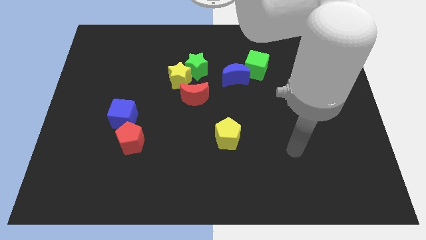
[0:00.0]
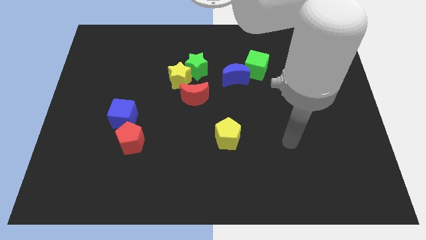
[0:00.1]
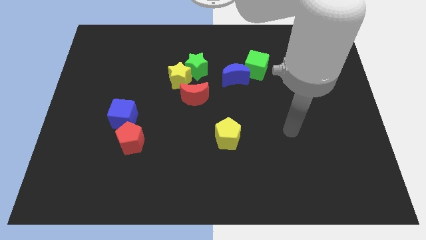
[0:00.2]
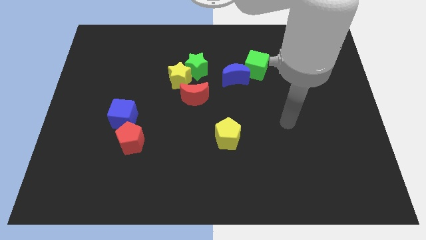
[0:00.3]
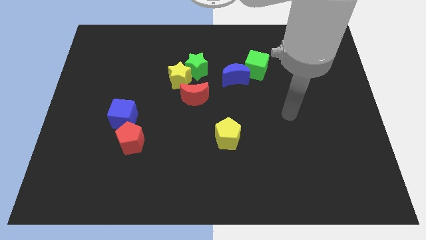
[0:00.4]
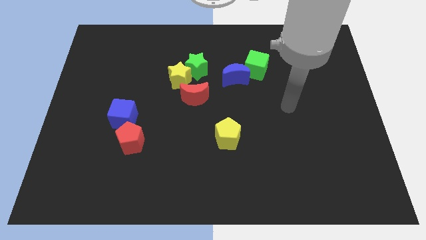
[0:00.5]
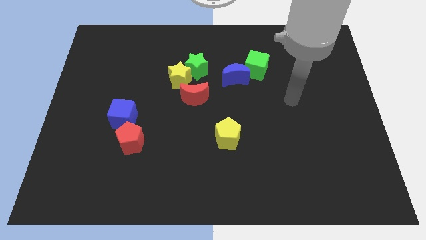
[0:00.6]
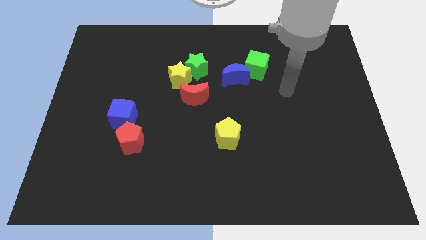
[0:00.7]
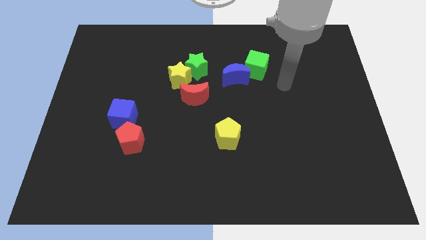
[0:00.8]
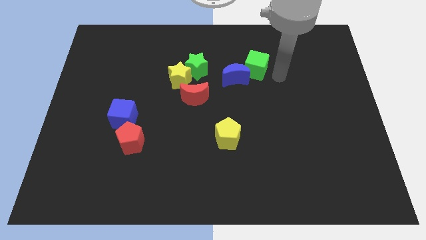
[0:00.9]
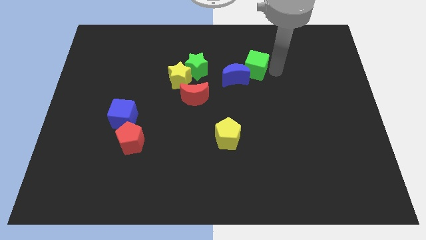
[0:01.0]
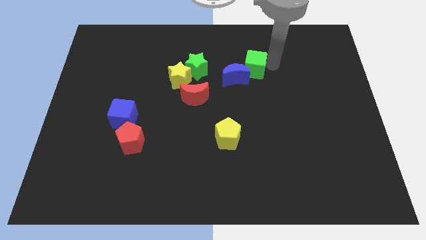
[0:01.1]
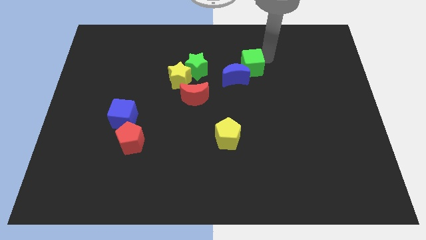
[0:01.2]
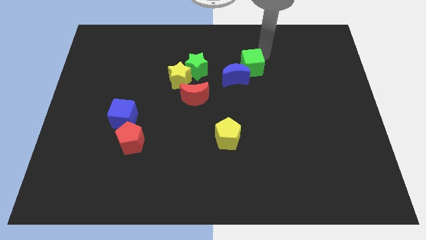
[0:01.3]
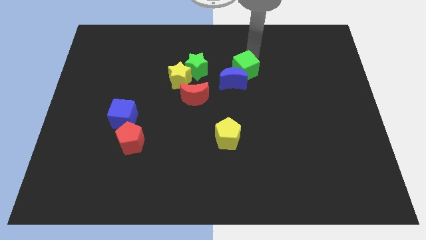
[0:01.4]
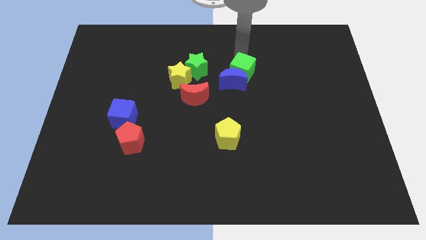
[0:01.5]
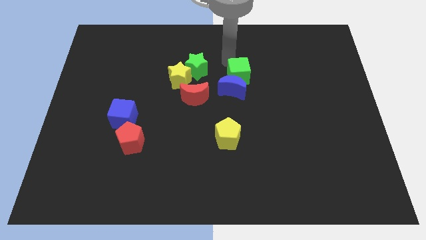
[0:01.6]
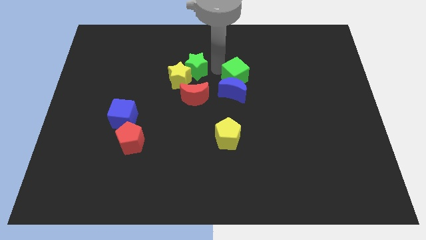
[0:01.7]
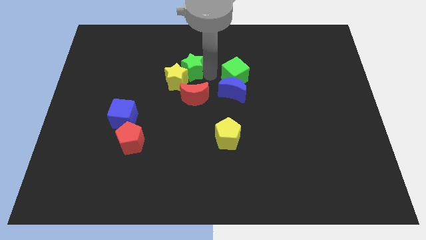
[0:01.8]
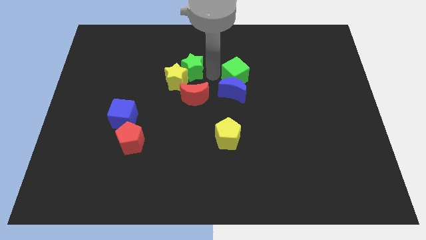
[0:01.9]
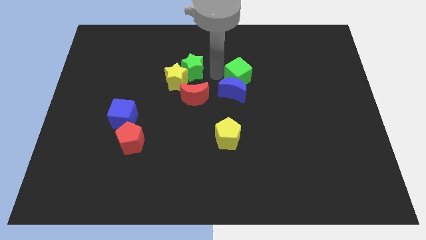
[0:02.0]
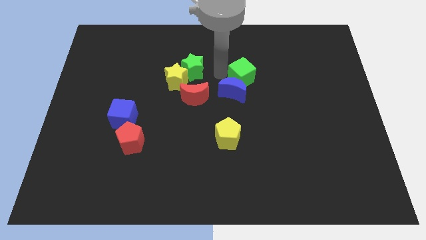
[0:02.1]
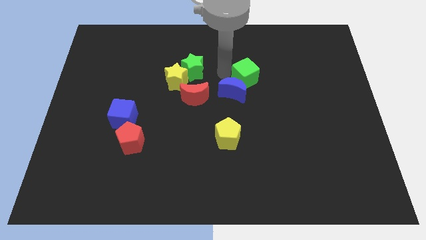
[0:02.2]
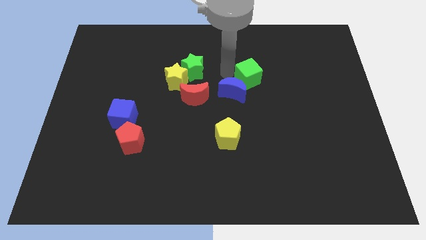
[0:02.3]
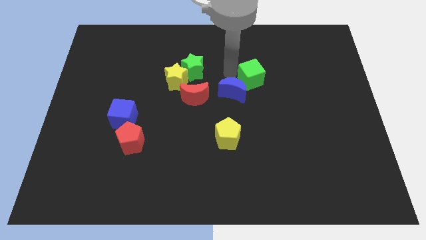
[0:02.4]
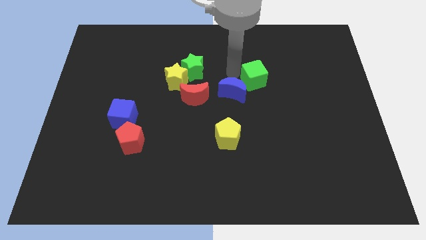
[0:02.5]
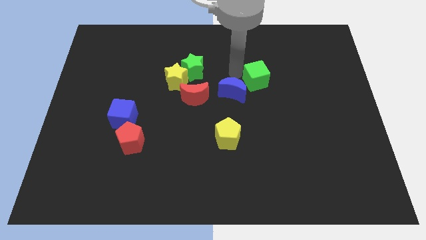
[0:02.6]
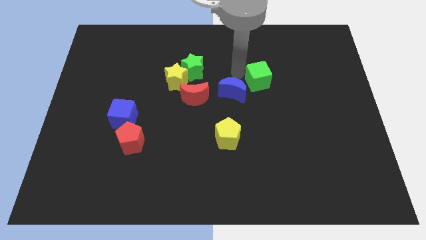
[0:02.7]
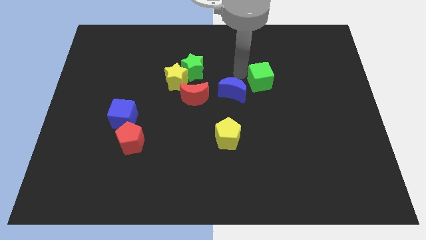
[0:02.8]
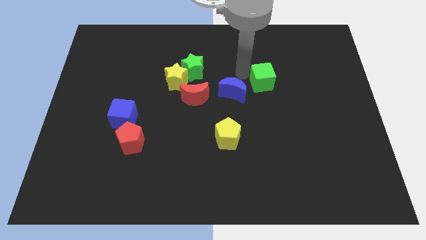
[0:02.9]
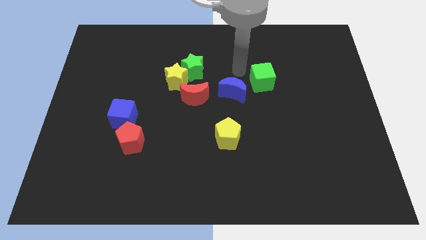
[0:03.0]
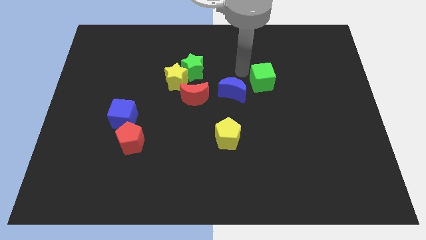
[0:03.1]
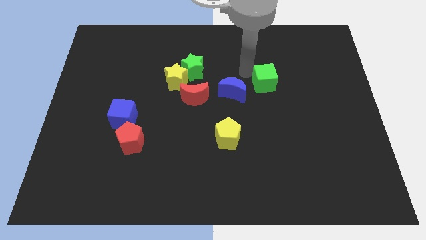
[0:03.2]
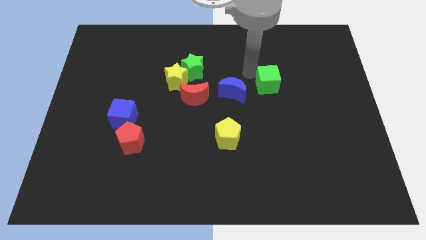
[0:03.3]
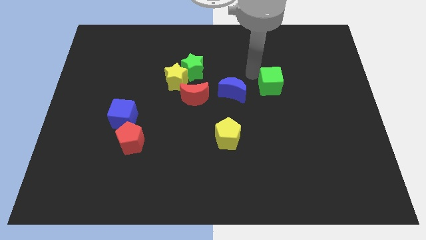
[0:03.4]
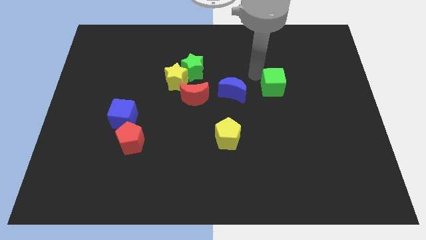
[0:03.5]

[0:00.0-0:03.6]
slide the green cube downwards and then right slightly

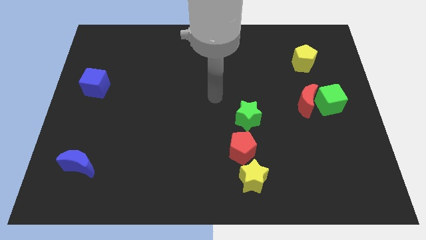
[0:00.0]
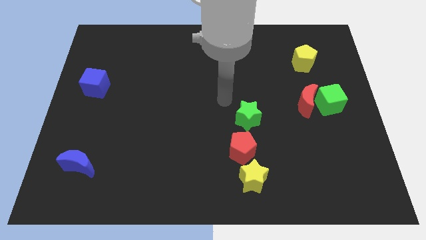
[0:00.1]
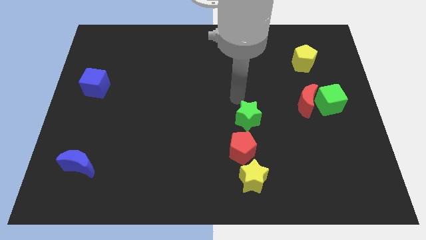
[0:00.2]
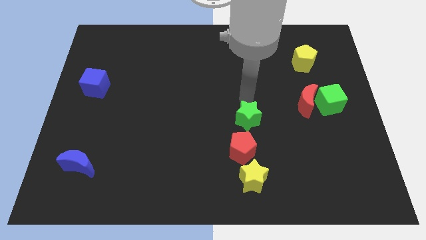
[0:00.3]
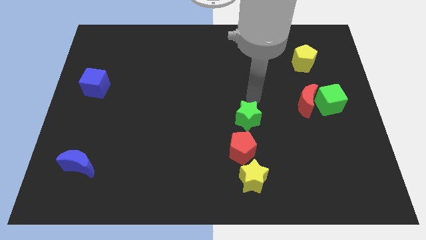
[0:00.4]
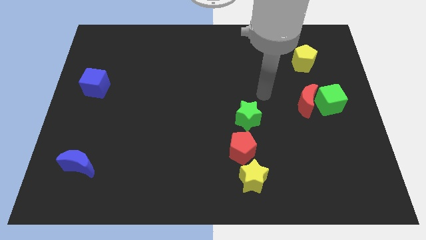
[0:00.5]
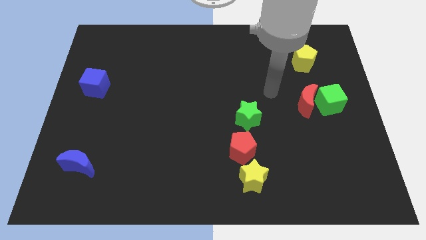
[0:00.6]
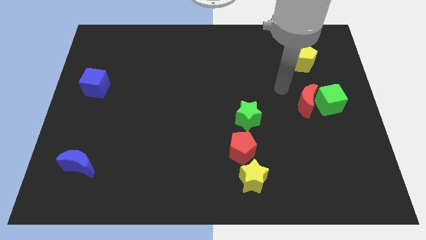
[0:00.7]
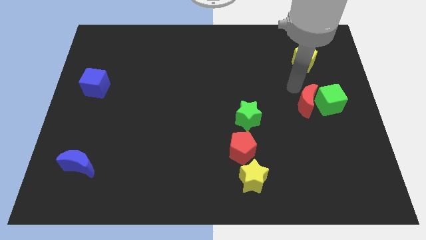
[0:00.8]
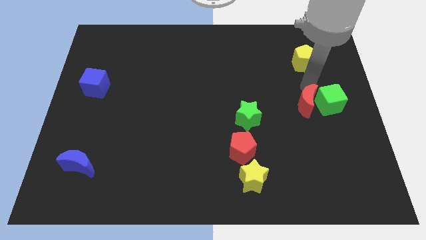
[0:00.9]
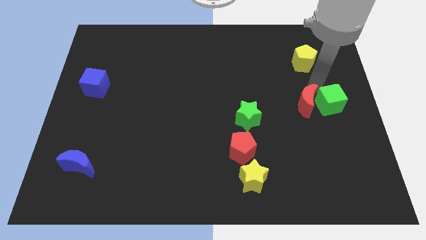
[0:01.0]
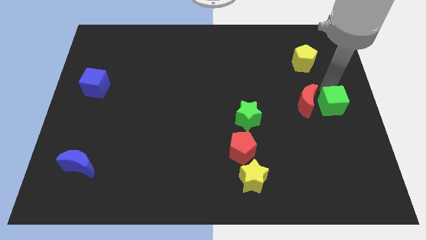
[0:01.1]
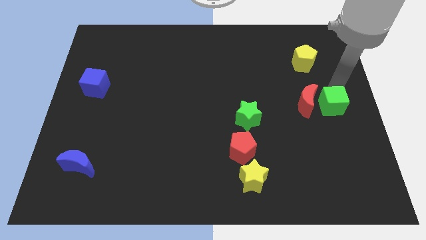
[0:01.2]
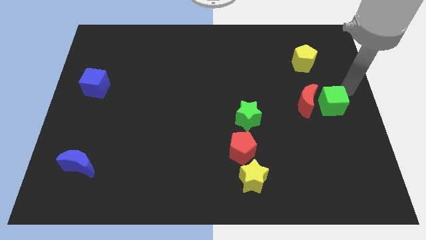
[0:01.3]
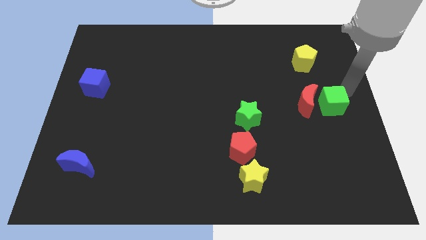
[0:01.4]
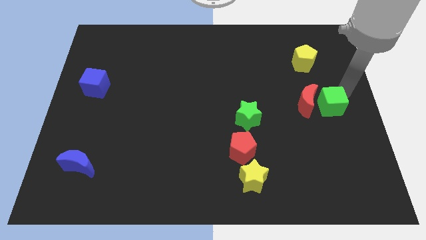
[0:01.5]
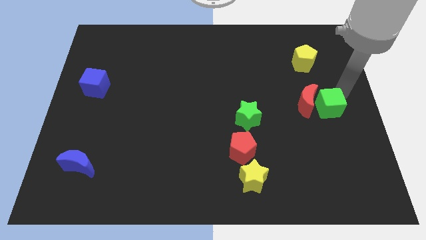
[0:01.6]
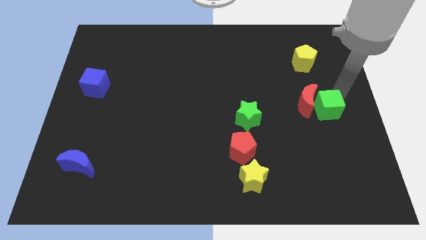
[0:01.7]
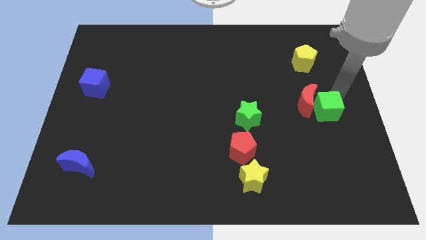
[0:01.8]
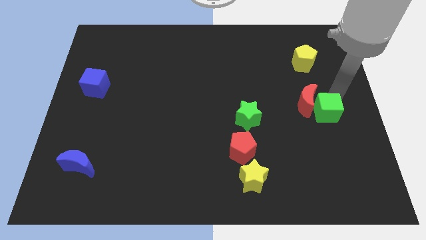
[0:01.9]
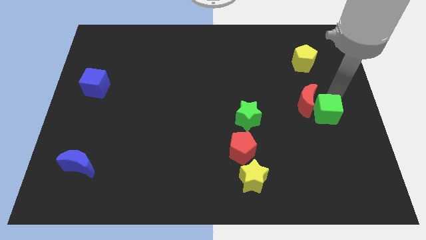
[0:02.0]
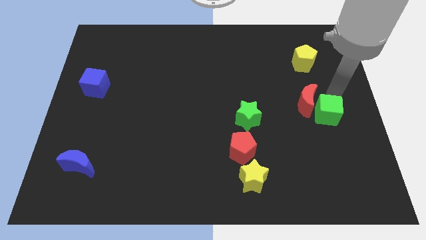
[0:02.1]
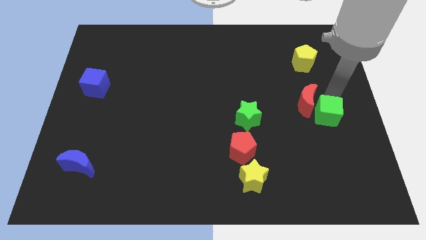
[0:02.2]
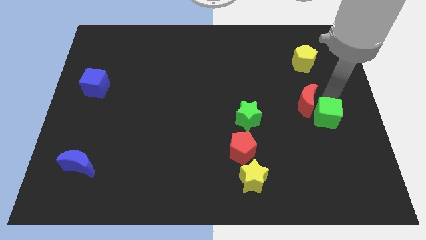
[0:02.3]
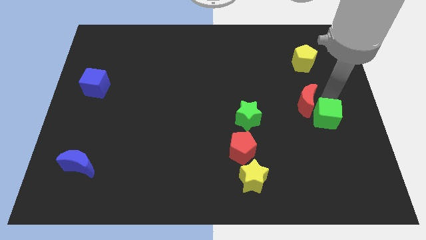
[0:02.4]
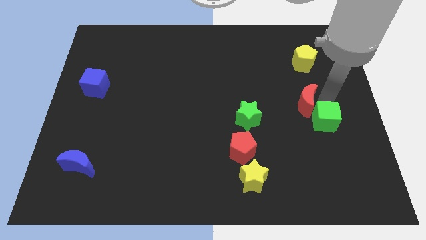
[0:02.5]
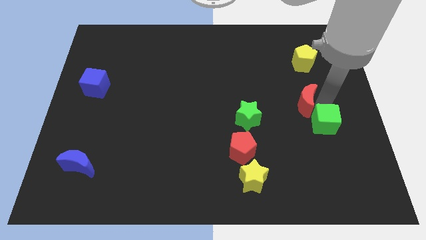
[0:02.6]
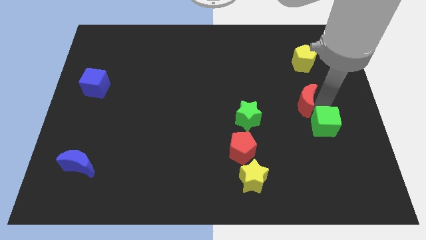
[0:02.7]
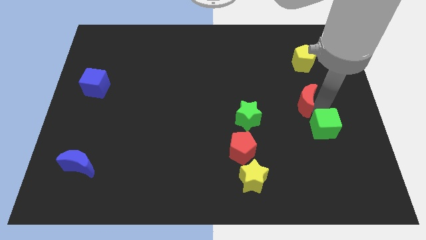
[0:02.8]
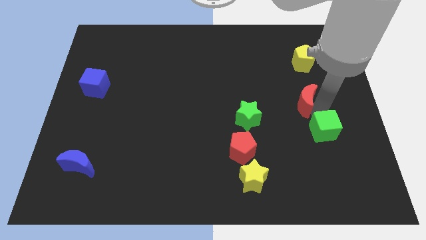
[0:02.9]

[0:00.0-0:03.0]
push the green cube somewhat down and to the left

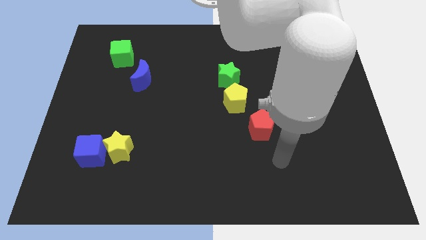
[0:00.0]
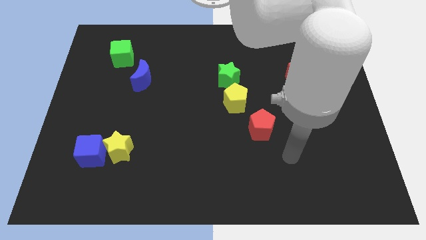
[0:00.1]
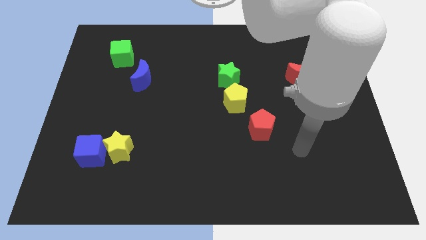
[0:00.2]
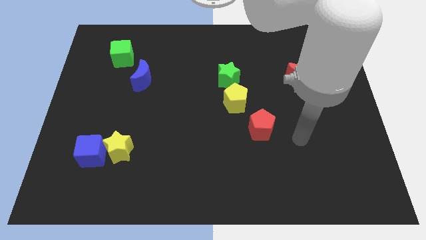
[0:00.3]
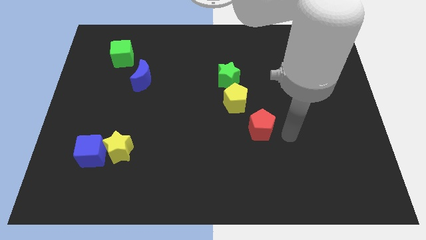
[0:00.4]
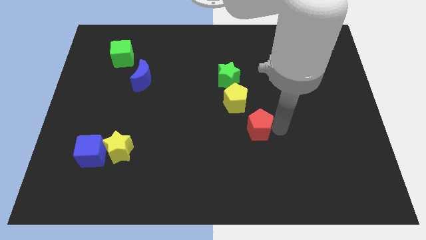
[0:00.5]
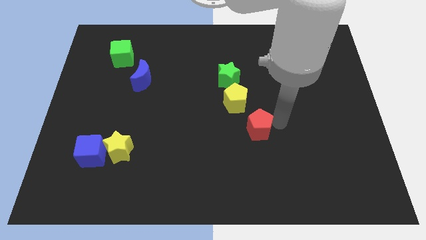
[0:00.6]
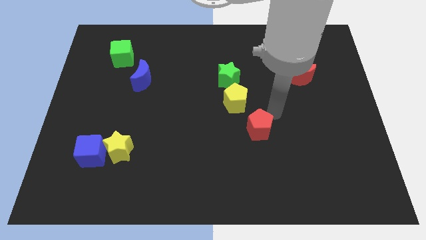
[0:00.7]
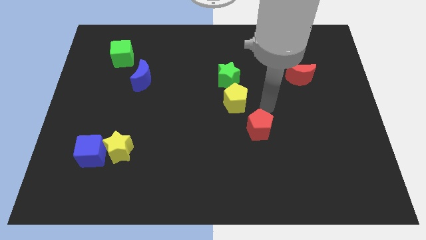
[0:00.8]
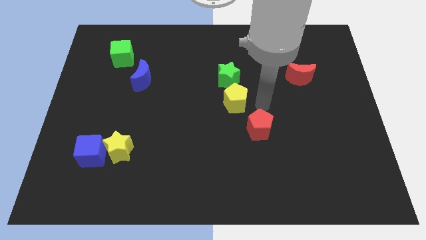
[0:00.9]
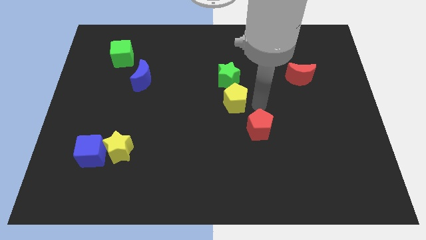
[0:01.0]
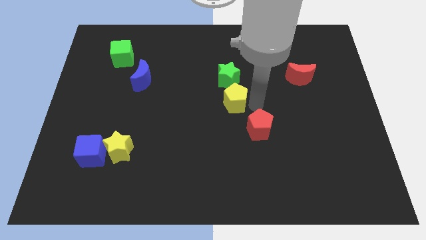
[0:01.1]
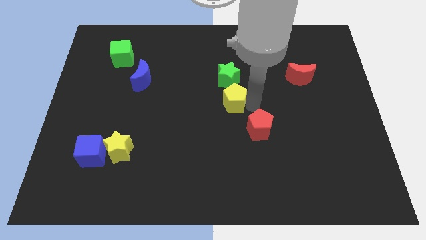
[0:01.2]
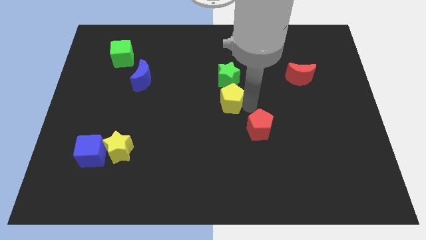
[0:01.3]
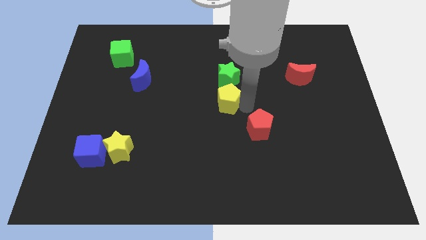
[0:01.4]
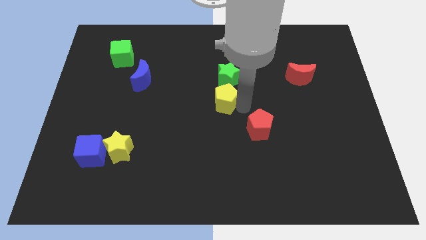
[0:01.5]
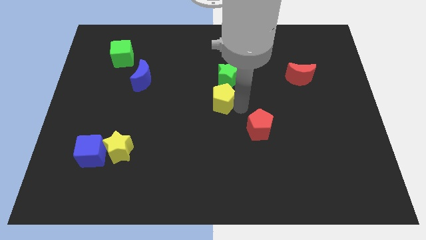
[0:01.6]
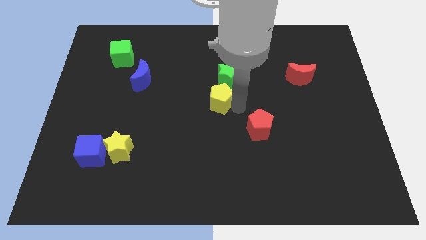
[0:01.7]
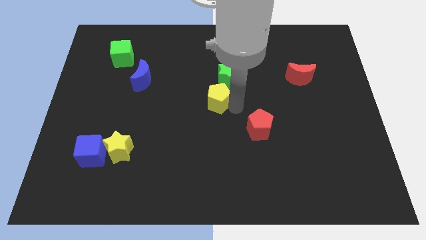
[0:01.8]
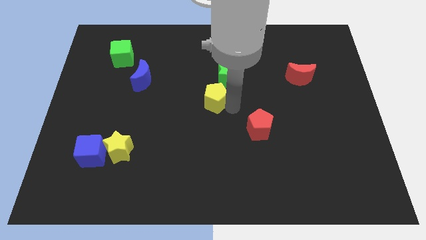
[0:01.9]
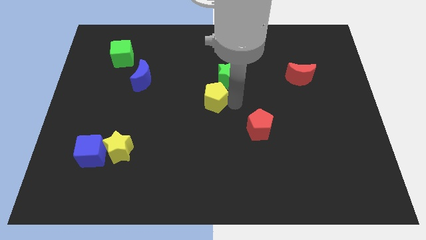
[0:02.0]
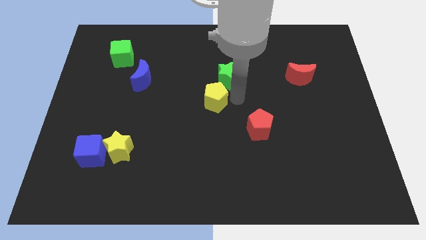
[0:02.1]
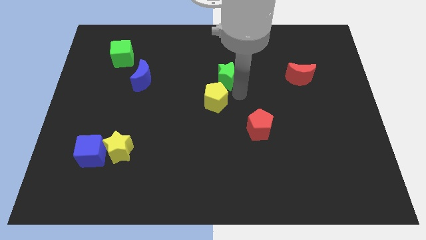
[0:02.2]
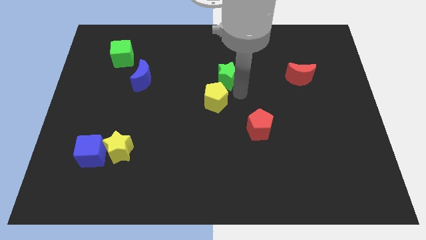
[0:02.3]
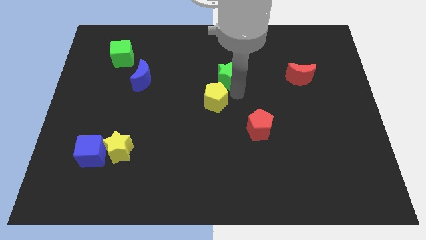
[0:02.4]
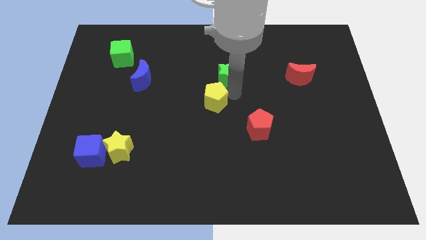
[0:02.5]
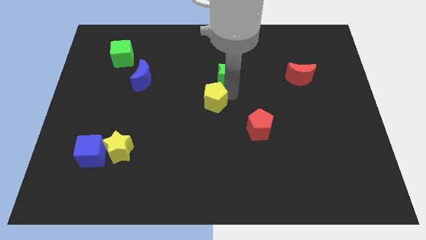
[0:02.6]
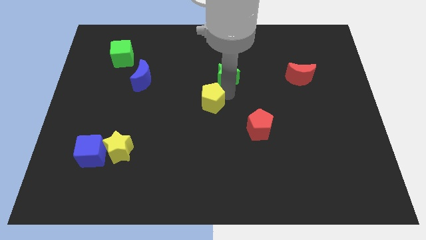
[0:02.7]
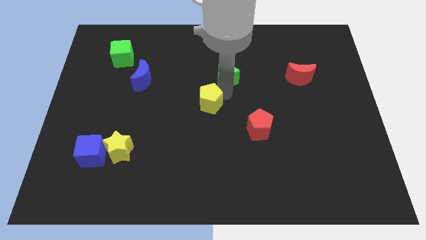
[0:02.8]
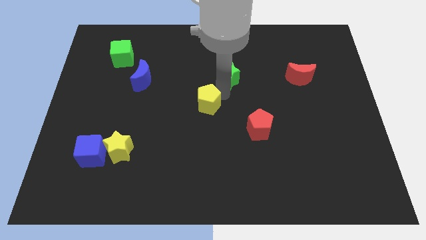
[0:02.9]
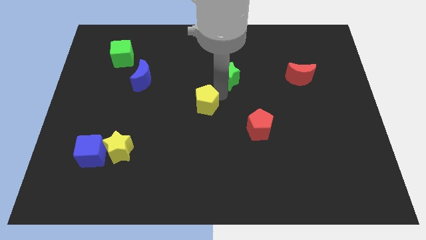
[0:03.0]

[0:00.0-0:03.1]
slide the yellow pentagon slightly left
